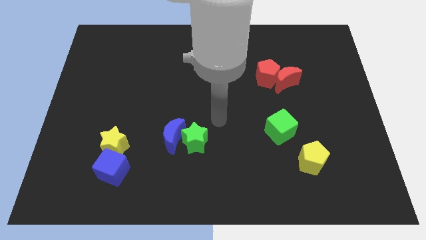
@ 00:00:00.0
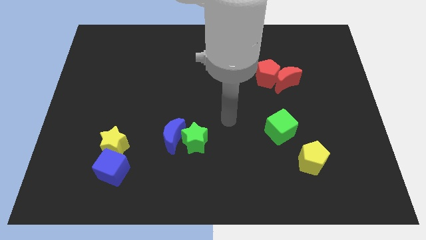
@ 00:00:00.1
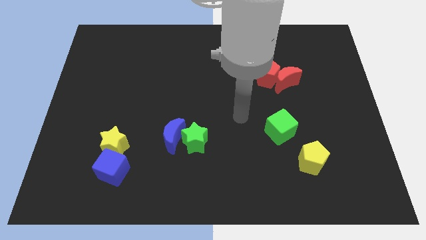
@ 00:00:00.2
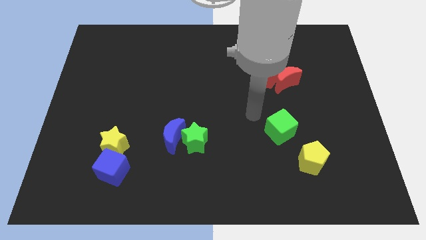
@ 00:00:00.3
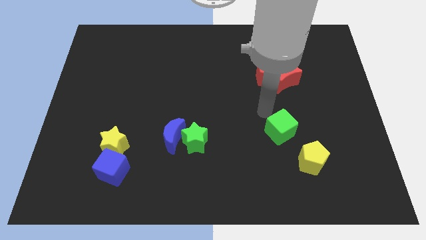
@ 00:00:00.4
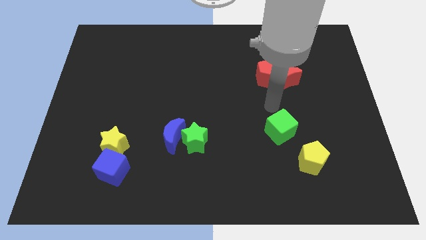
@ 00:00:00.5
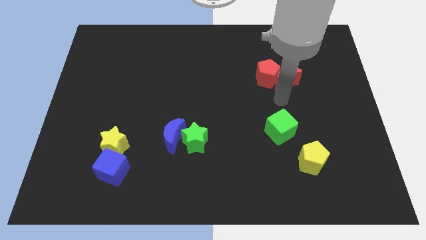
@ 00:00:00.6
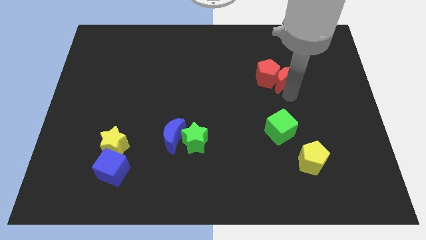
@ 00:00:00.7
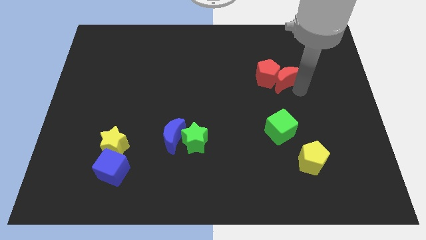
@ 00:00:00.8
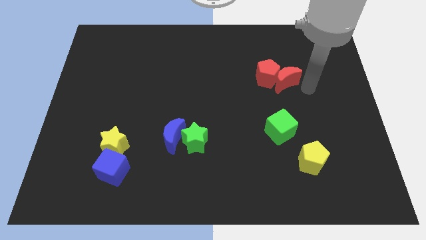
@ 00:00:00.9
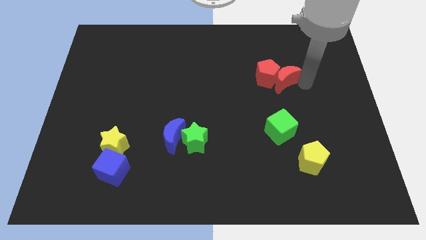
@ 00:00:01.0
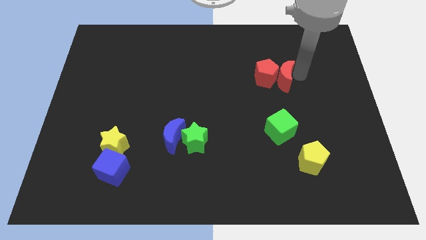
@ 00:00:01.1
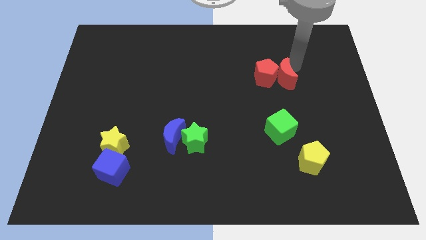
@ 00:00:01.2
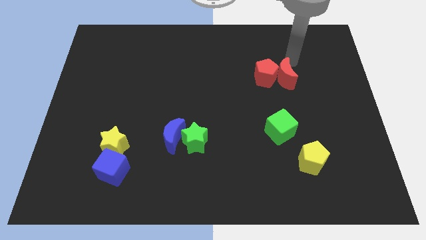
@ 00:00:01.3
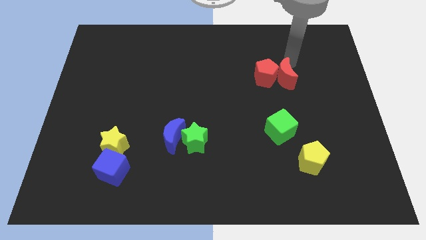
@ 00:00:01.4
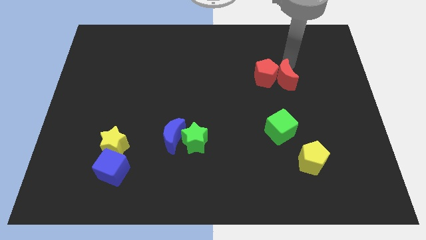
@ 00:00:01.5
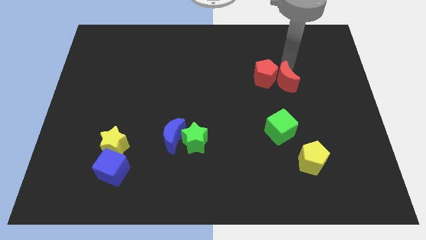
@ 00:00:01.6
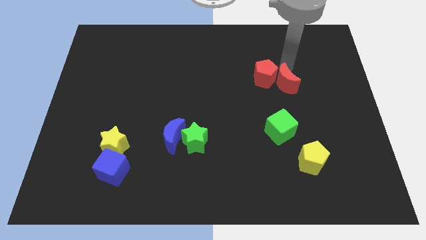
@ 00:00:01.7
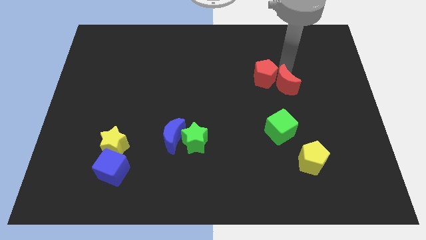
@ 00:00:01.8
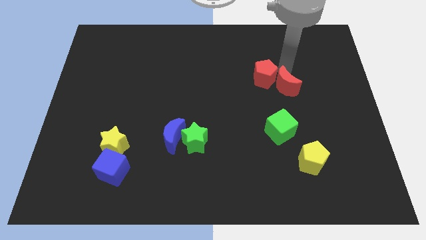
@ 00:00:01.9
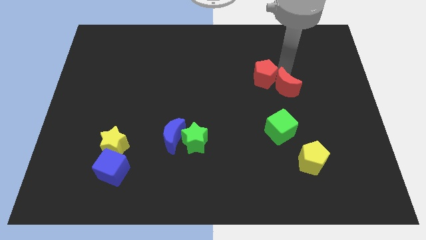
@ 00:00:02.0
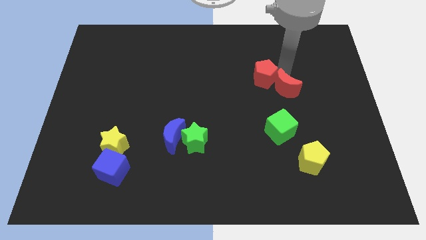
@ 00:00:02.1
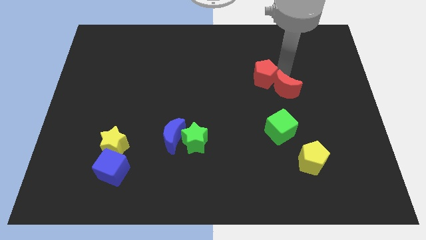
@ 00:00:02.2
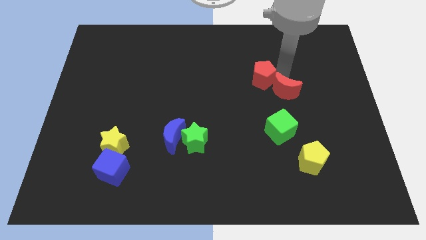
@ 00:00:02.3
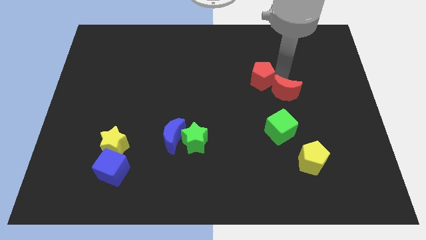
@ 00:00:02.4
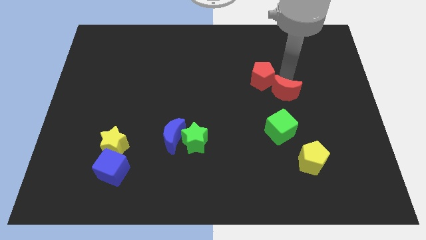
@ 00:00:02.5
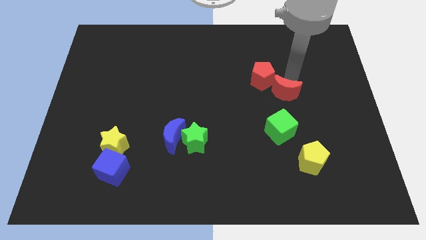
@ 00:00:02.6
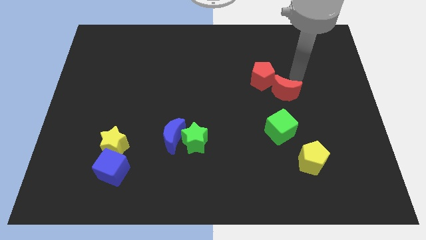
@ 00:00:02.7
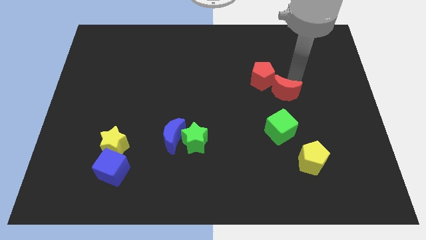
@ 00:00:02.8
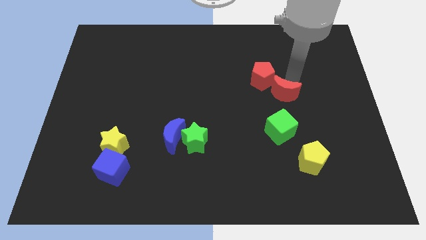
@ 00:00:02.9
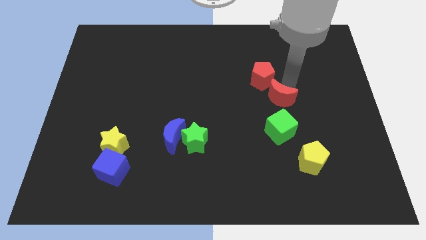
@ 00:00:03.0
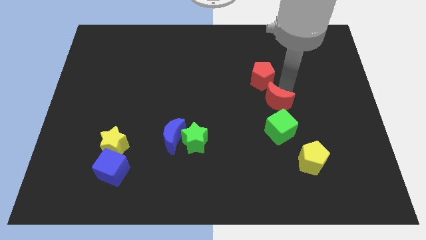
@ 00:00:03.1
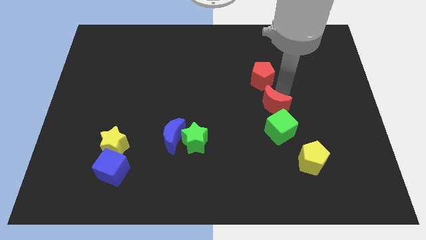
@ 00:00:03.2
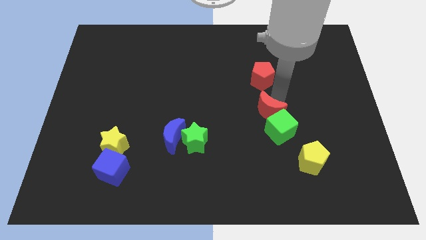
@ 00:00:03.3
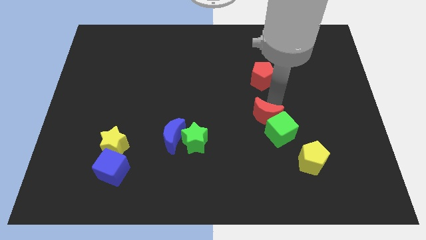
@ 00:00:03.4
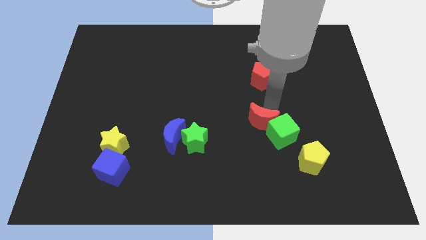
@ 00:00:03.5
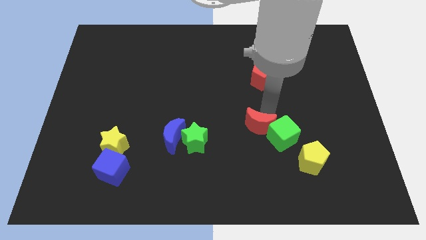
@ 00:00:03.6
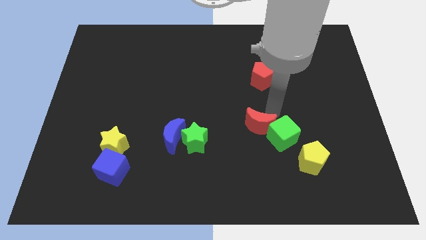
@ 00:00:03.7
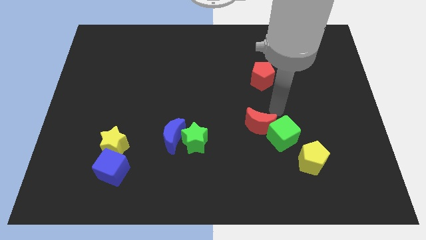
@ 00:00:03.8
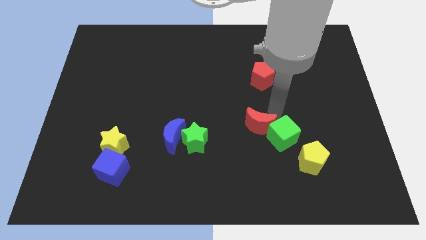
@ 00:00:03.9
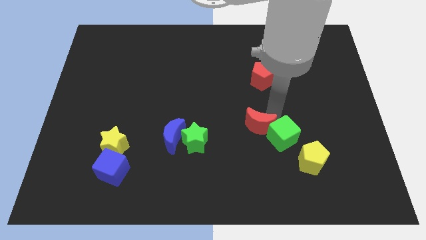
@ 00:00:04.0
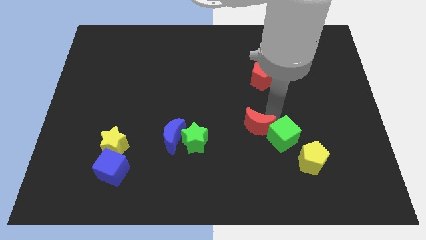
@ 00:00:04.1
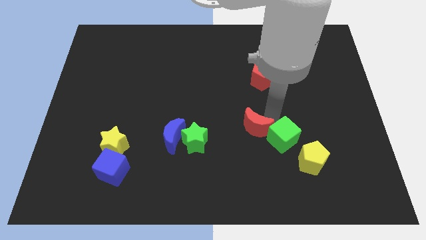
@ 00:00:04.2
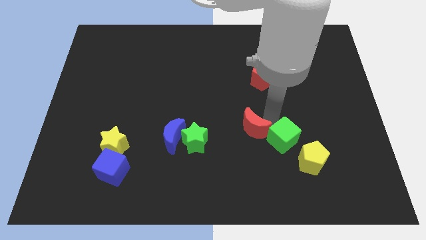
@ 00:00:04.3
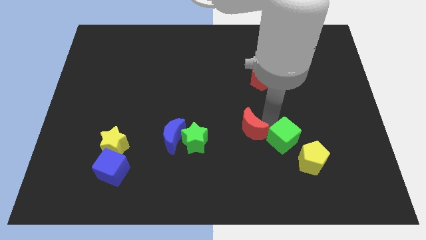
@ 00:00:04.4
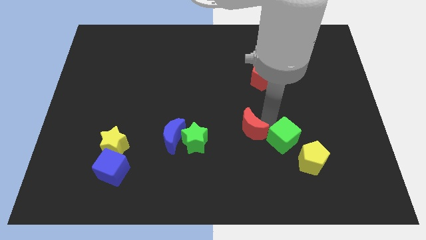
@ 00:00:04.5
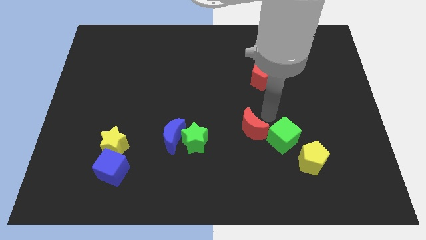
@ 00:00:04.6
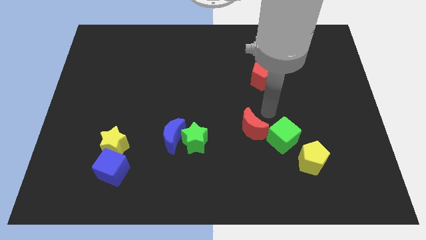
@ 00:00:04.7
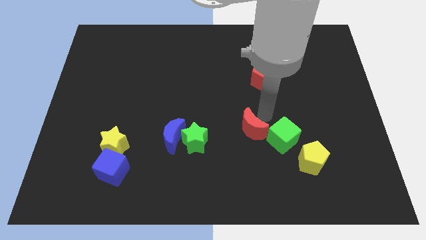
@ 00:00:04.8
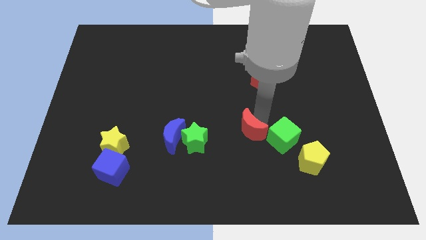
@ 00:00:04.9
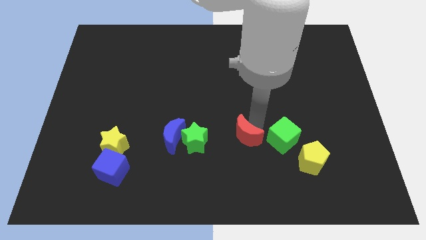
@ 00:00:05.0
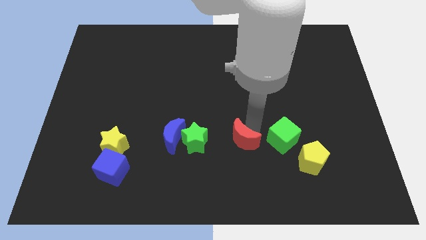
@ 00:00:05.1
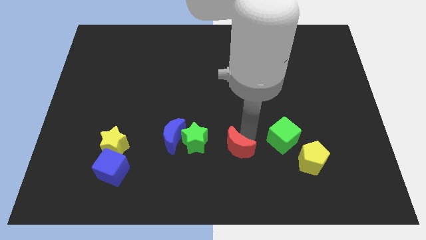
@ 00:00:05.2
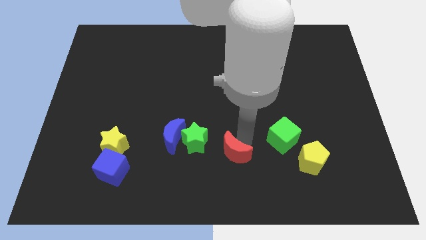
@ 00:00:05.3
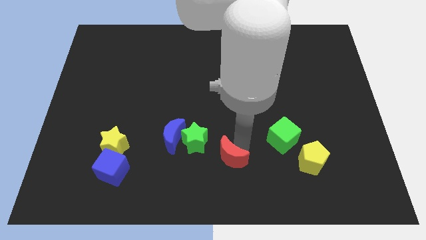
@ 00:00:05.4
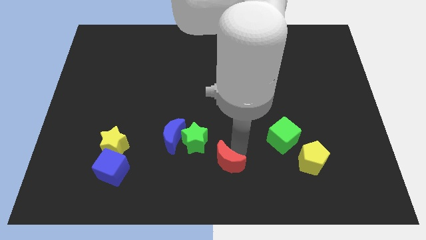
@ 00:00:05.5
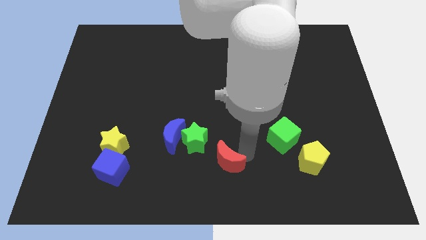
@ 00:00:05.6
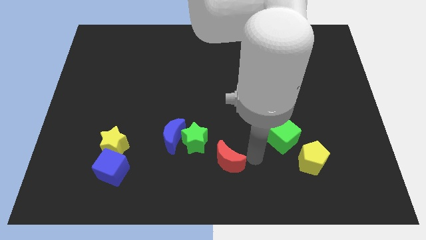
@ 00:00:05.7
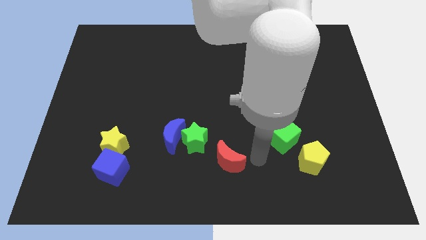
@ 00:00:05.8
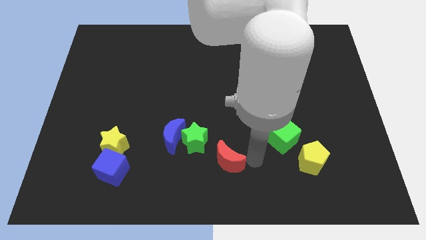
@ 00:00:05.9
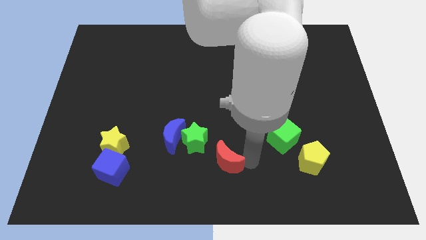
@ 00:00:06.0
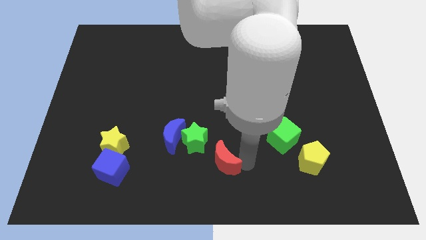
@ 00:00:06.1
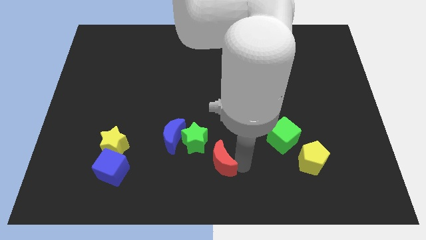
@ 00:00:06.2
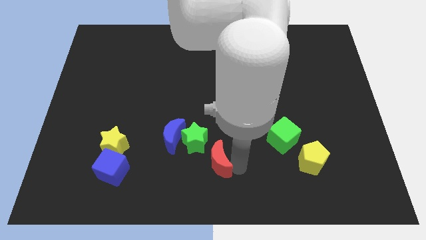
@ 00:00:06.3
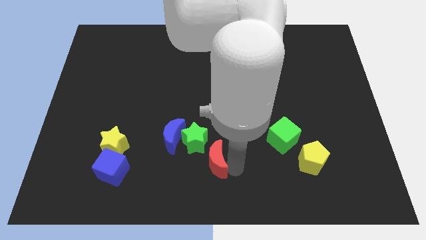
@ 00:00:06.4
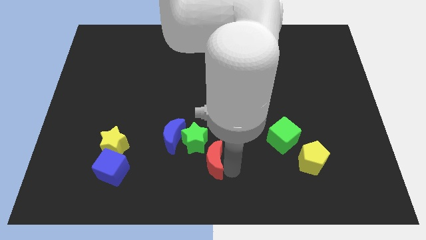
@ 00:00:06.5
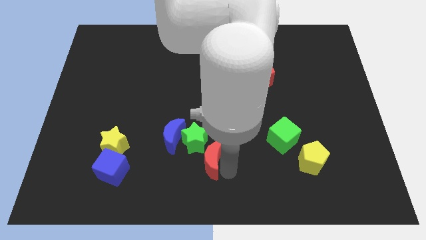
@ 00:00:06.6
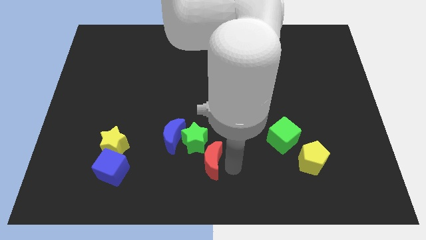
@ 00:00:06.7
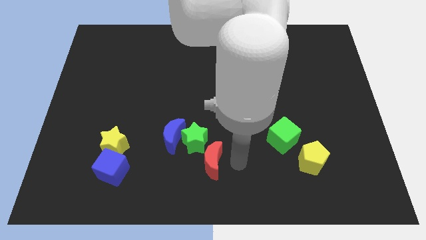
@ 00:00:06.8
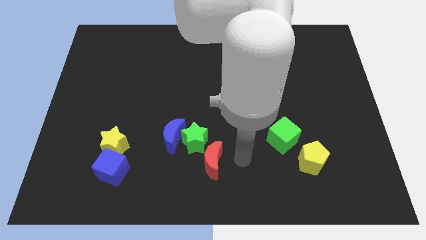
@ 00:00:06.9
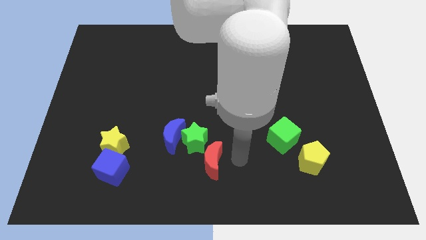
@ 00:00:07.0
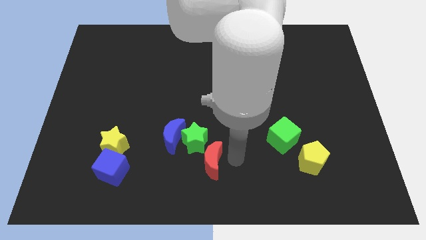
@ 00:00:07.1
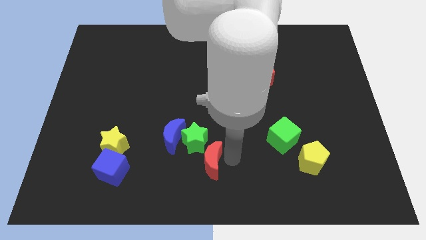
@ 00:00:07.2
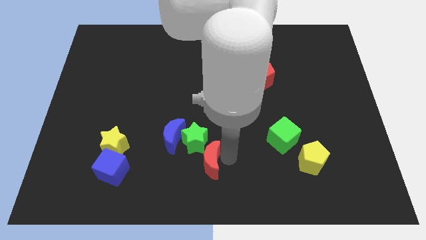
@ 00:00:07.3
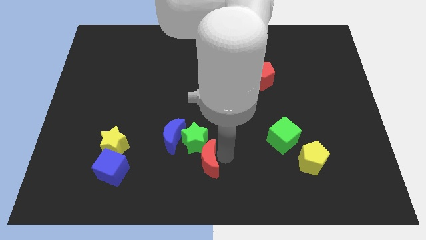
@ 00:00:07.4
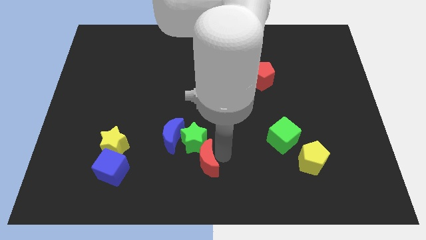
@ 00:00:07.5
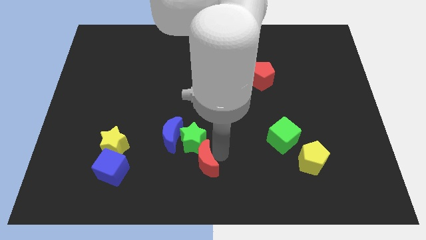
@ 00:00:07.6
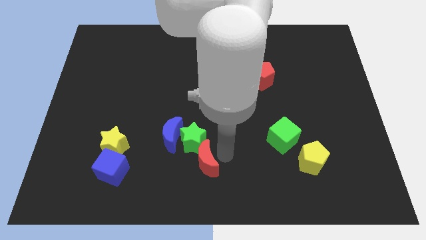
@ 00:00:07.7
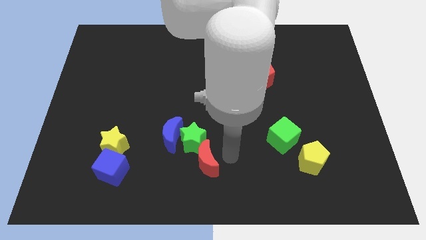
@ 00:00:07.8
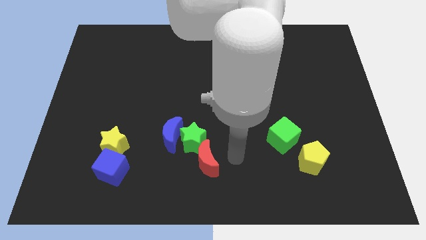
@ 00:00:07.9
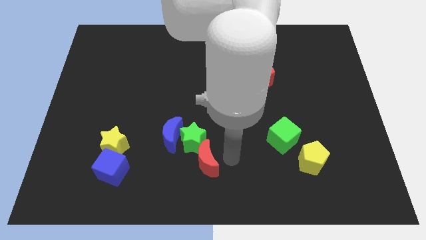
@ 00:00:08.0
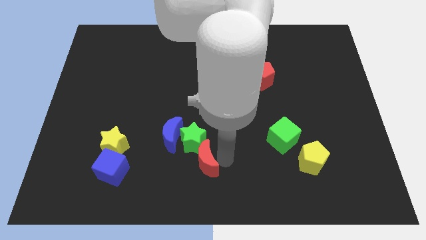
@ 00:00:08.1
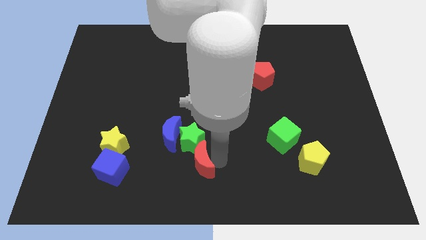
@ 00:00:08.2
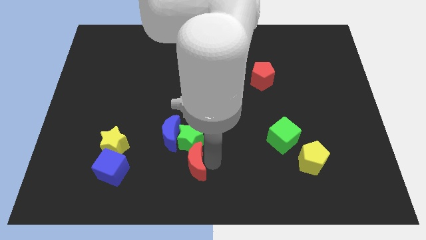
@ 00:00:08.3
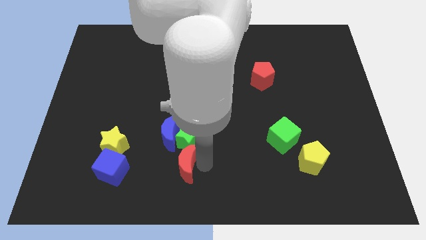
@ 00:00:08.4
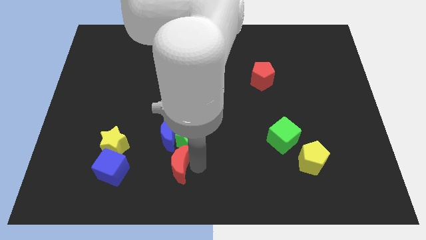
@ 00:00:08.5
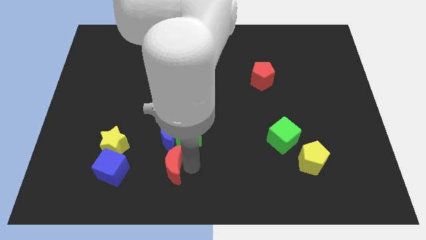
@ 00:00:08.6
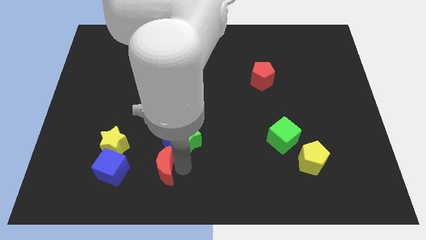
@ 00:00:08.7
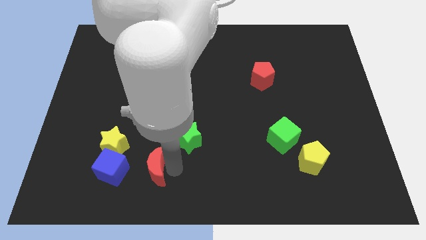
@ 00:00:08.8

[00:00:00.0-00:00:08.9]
put the red moon diagonally down and to the right of the yellow star
